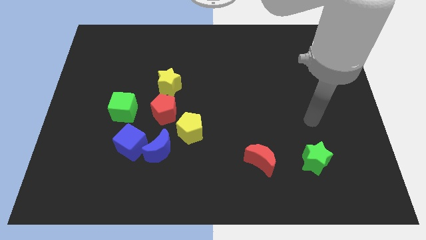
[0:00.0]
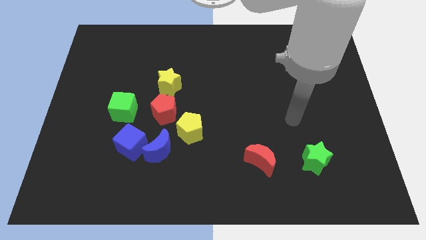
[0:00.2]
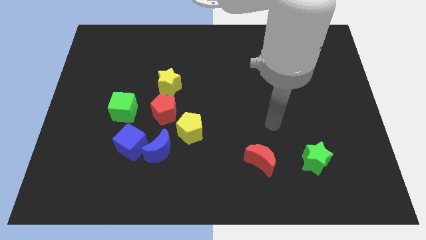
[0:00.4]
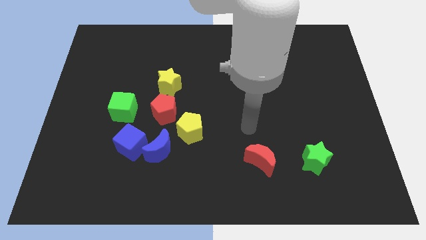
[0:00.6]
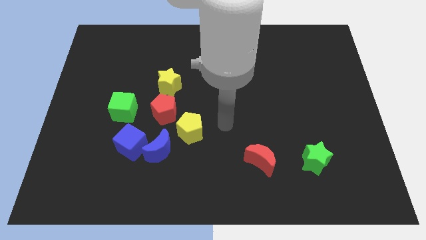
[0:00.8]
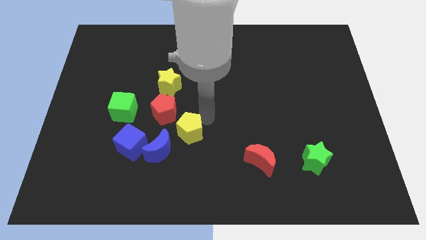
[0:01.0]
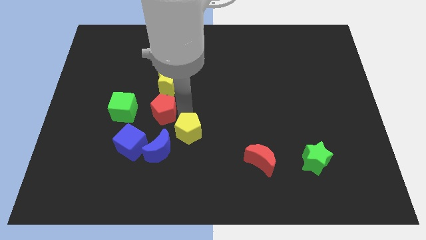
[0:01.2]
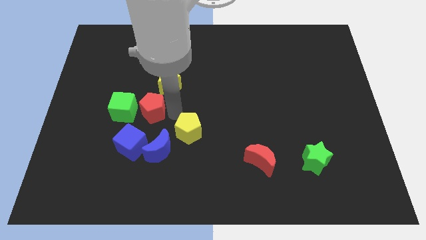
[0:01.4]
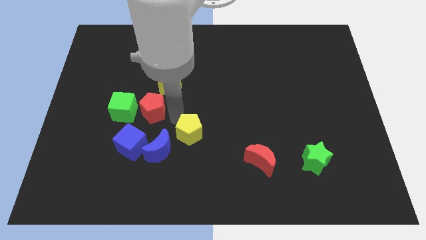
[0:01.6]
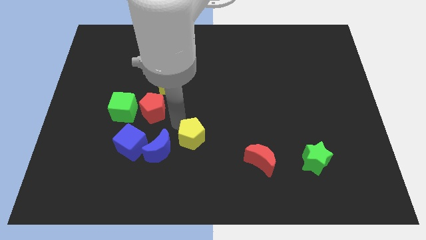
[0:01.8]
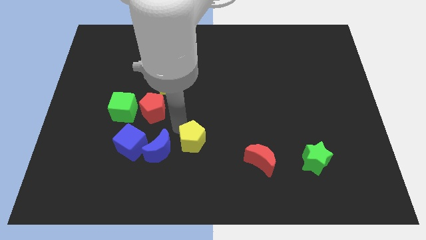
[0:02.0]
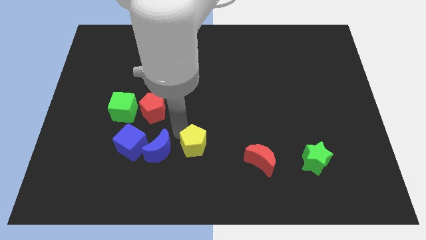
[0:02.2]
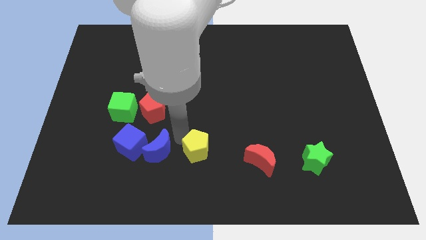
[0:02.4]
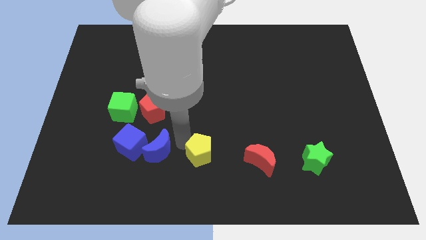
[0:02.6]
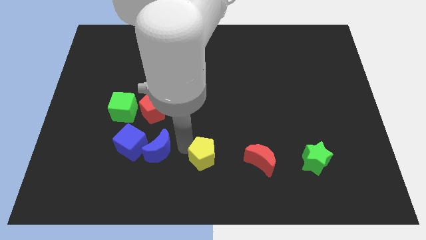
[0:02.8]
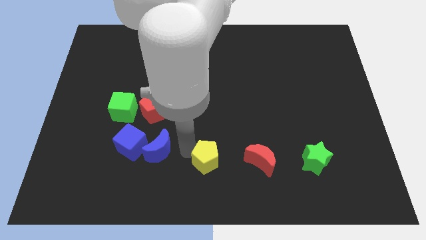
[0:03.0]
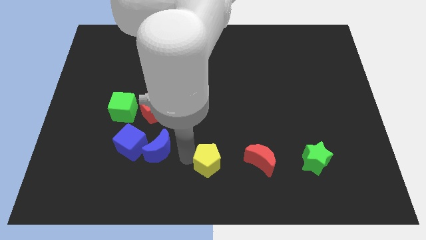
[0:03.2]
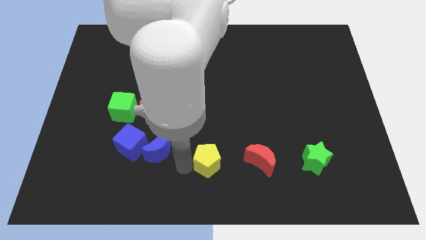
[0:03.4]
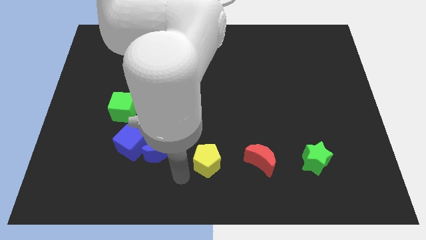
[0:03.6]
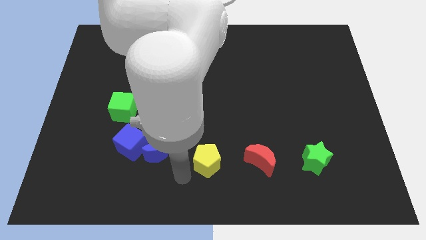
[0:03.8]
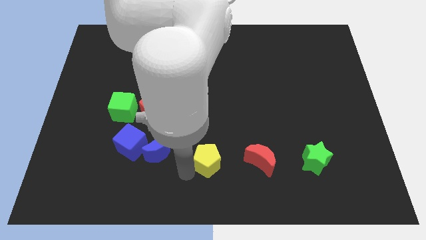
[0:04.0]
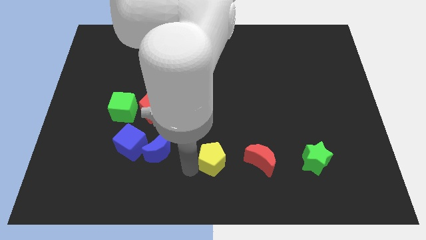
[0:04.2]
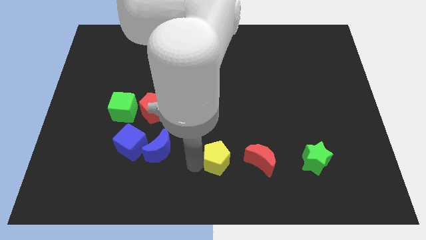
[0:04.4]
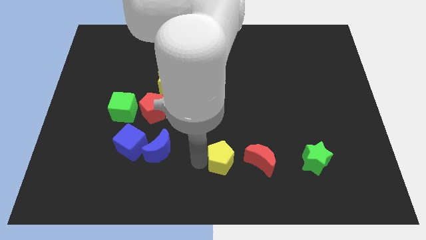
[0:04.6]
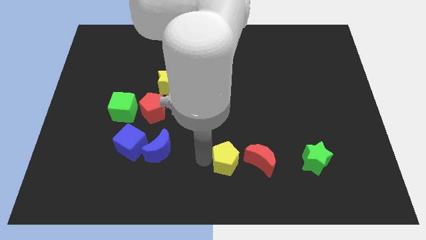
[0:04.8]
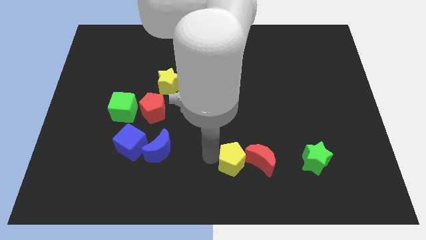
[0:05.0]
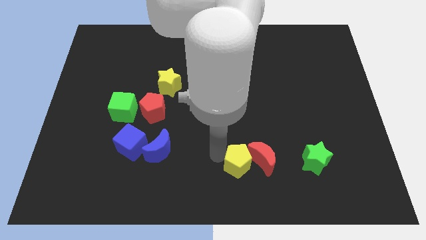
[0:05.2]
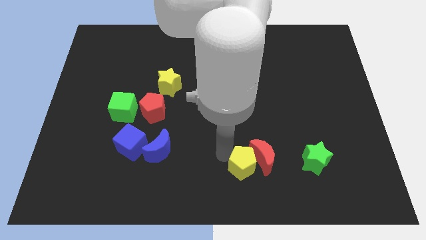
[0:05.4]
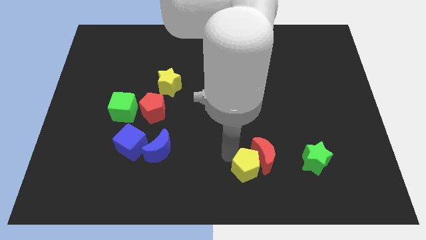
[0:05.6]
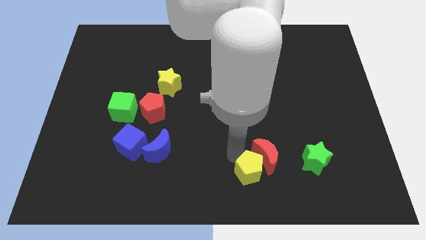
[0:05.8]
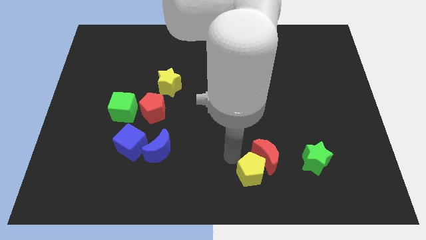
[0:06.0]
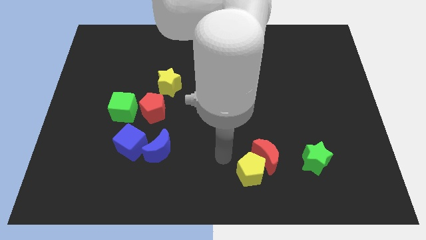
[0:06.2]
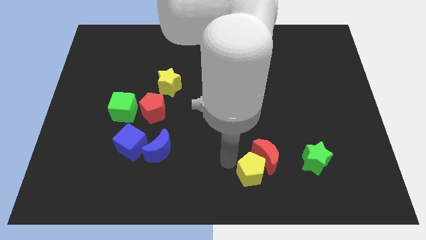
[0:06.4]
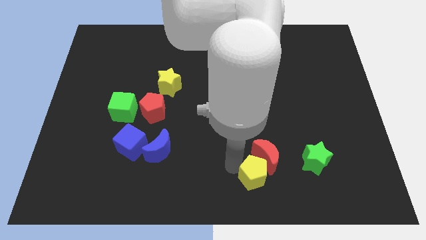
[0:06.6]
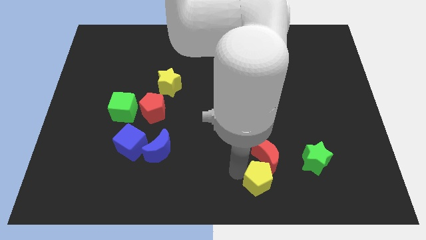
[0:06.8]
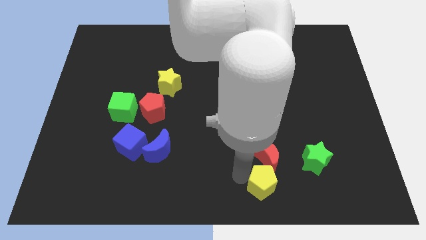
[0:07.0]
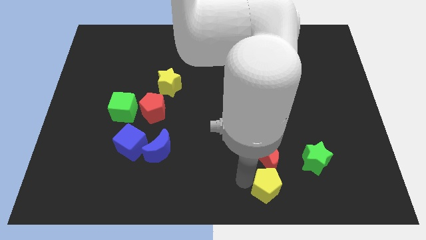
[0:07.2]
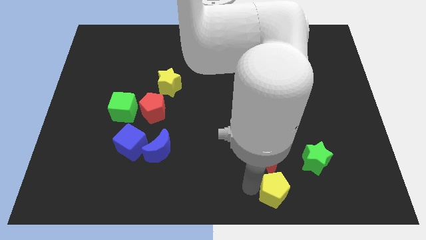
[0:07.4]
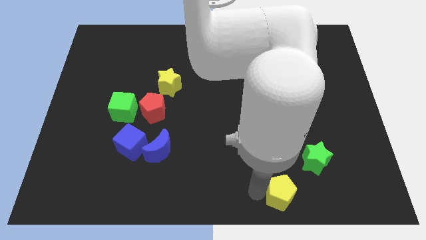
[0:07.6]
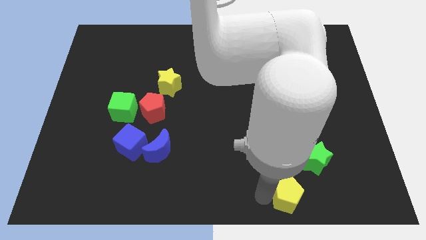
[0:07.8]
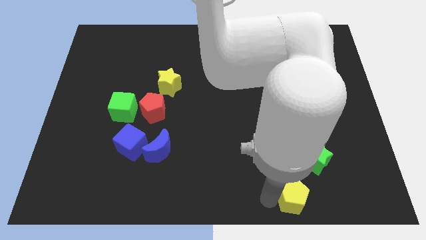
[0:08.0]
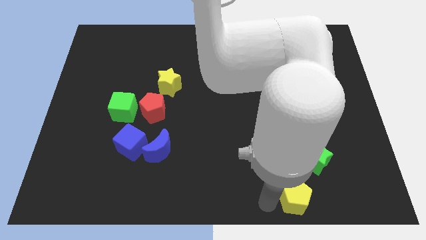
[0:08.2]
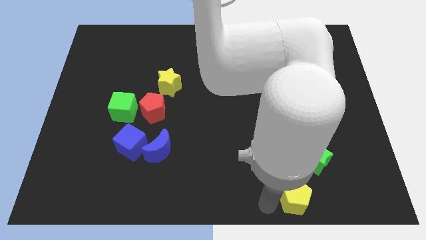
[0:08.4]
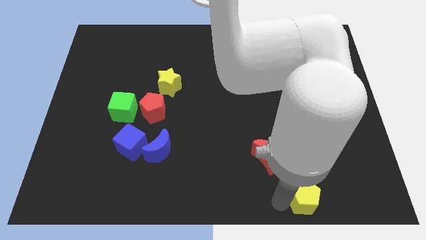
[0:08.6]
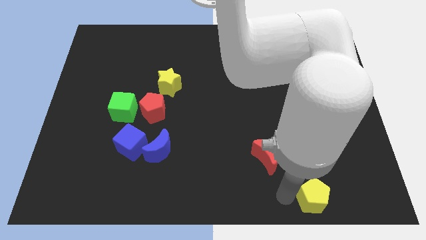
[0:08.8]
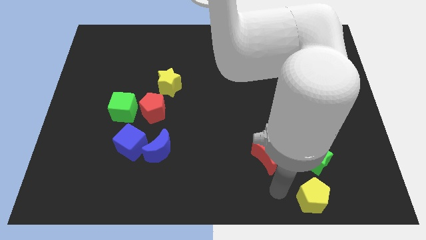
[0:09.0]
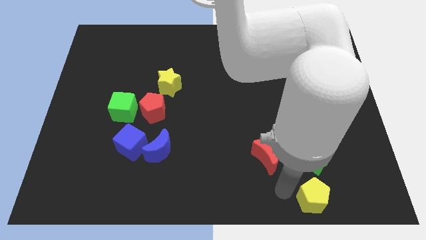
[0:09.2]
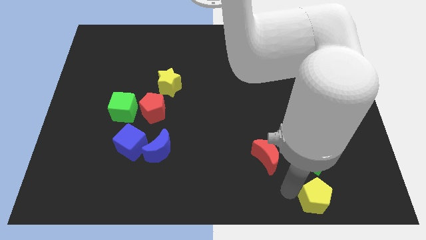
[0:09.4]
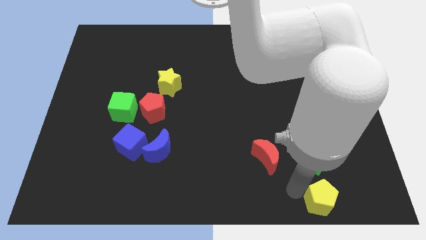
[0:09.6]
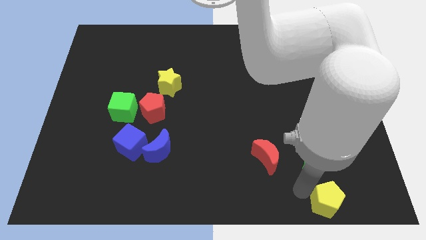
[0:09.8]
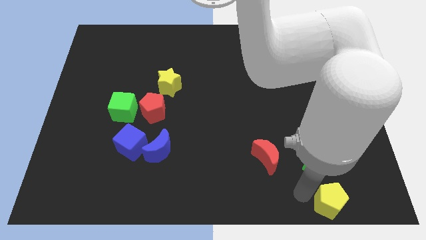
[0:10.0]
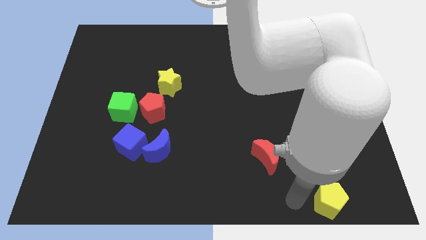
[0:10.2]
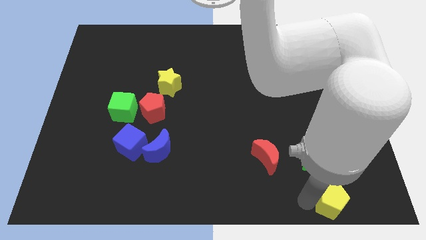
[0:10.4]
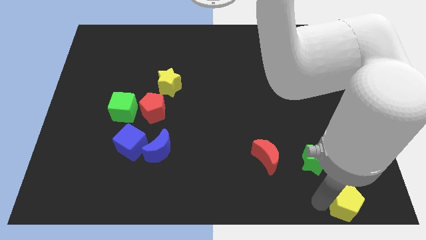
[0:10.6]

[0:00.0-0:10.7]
push the yellow pentagon to the lower right corner
